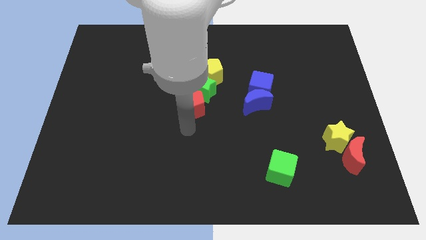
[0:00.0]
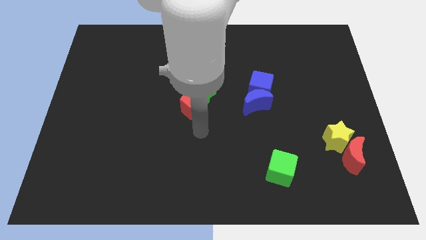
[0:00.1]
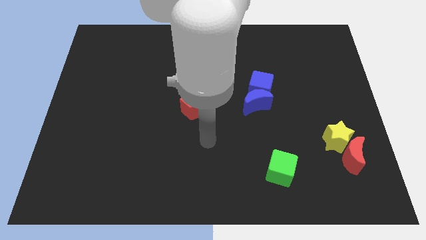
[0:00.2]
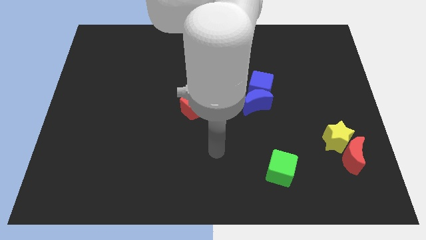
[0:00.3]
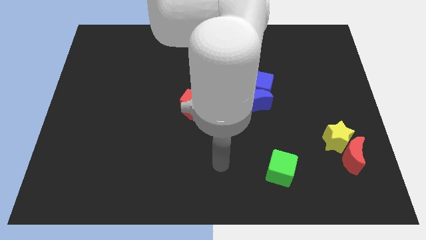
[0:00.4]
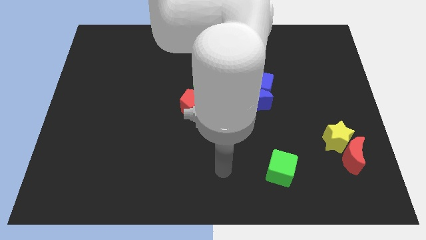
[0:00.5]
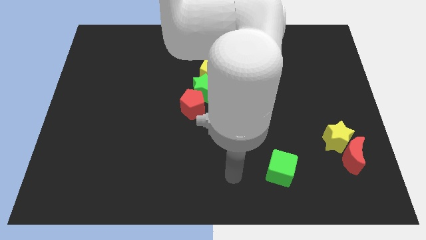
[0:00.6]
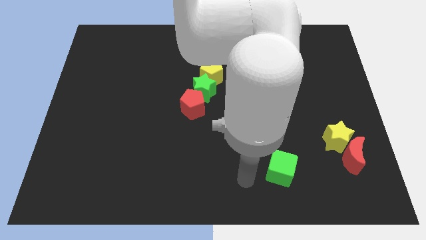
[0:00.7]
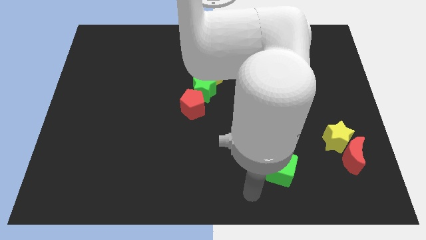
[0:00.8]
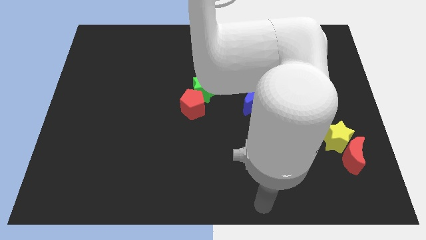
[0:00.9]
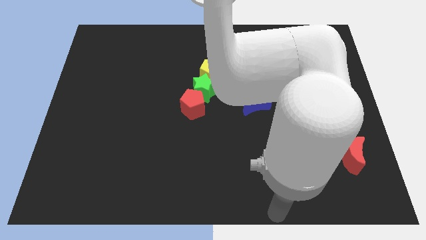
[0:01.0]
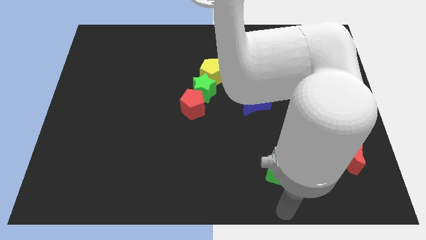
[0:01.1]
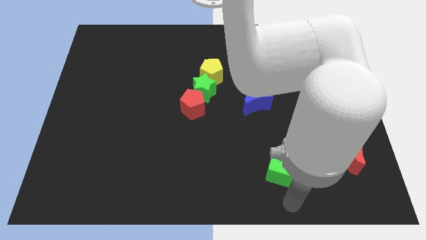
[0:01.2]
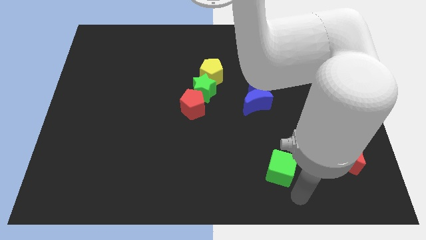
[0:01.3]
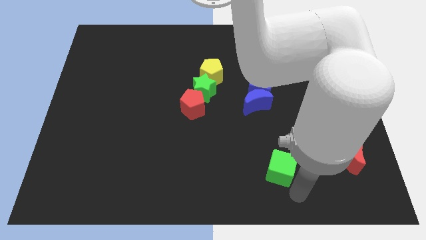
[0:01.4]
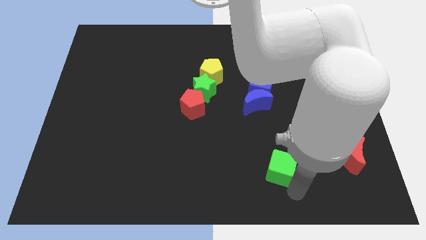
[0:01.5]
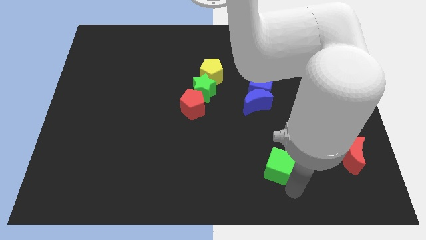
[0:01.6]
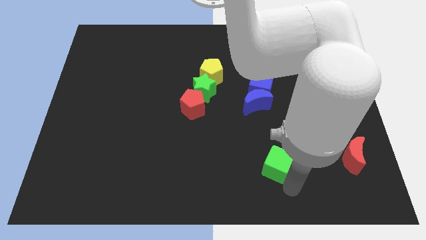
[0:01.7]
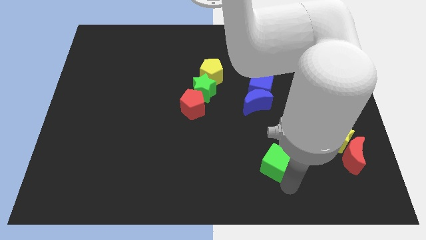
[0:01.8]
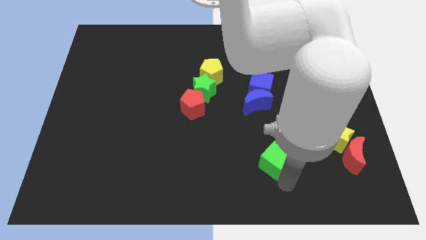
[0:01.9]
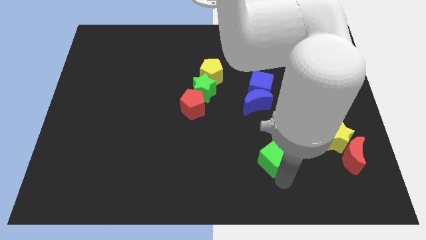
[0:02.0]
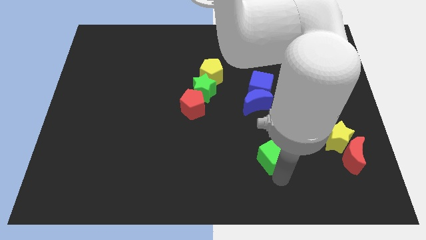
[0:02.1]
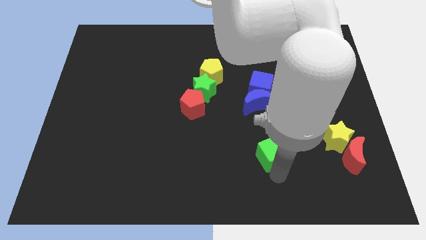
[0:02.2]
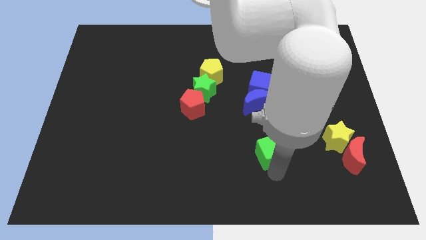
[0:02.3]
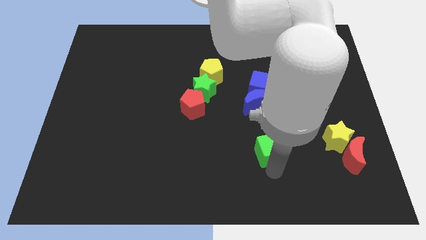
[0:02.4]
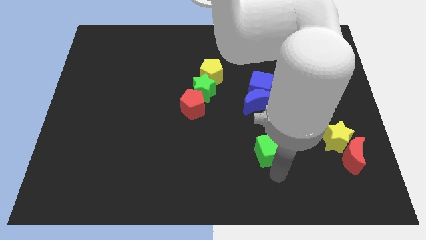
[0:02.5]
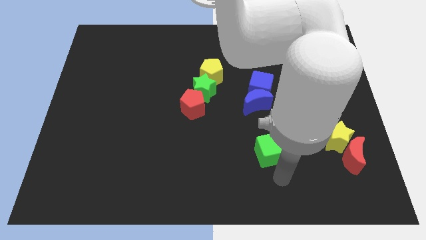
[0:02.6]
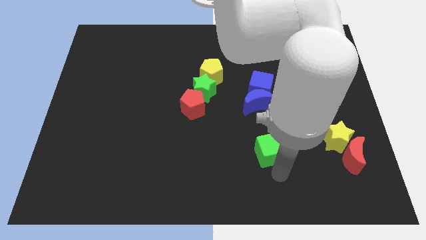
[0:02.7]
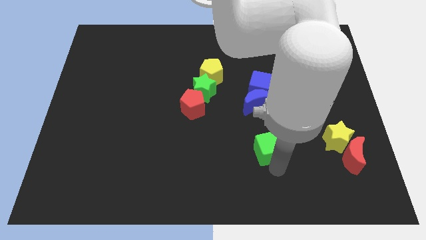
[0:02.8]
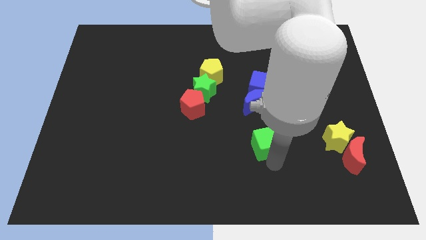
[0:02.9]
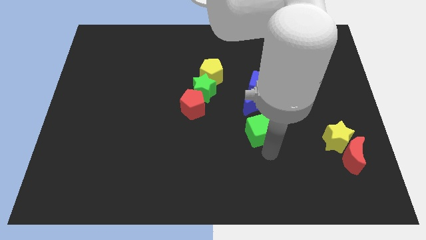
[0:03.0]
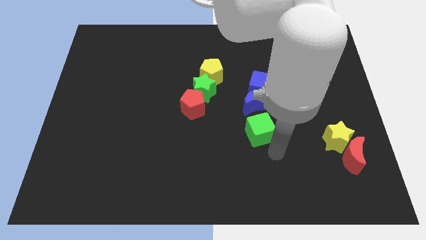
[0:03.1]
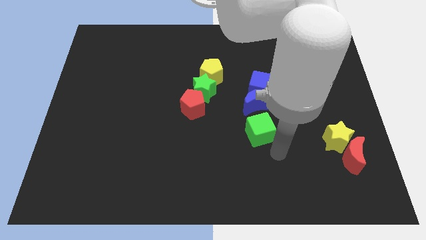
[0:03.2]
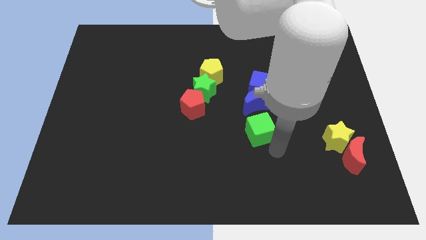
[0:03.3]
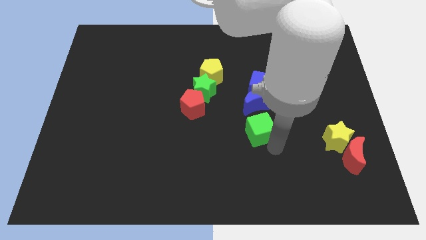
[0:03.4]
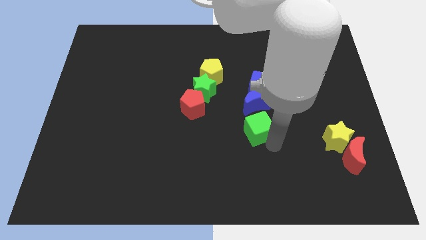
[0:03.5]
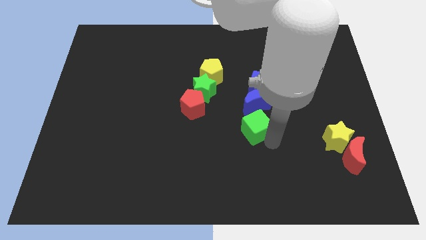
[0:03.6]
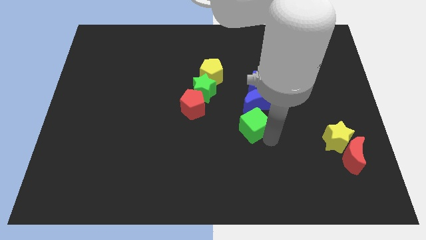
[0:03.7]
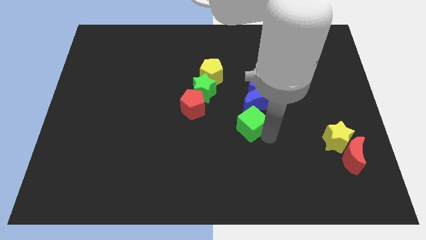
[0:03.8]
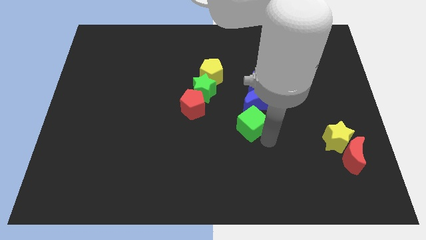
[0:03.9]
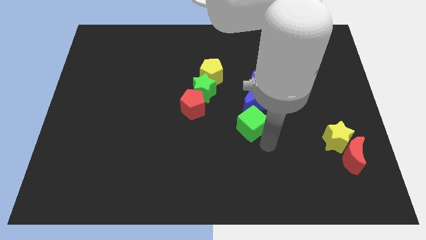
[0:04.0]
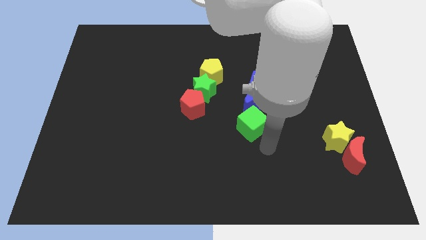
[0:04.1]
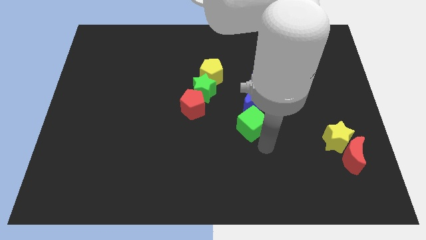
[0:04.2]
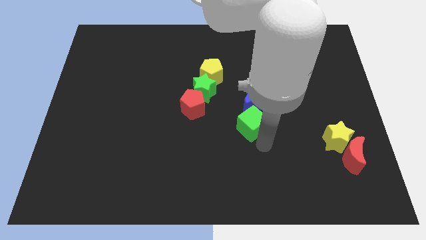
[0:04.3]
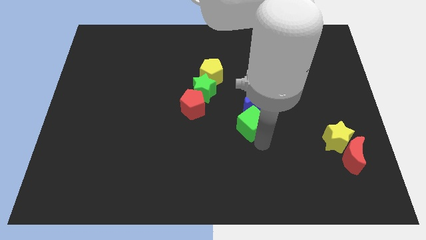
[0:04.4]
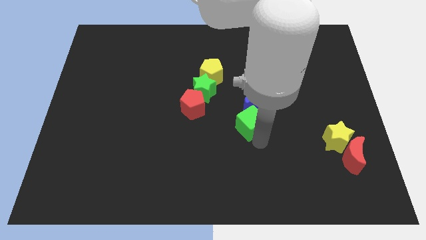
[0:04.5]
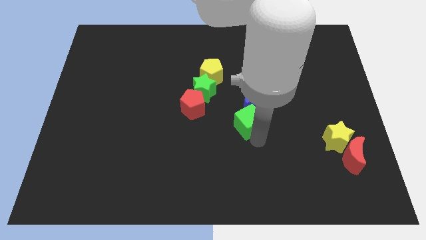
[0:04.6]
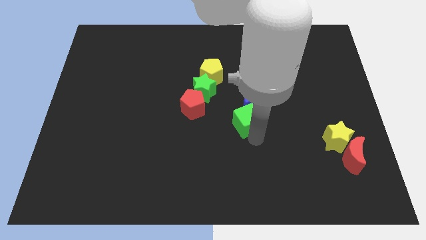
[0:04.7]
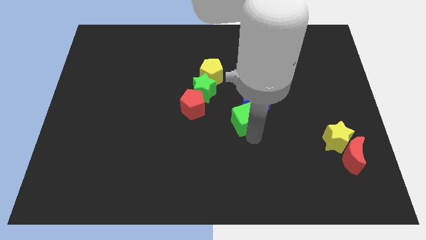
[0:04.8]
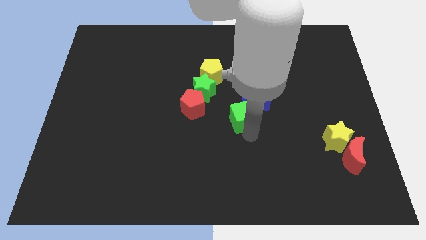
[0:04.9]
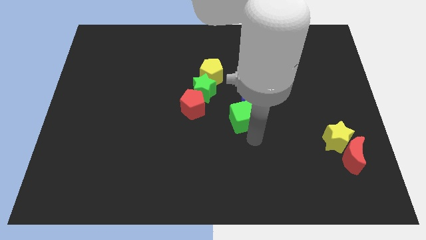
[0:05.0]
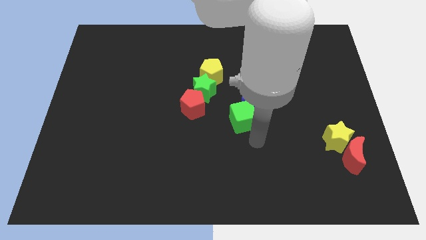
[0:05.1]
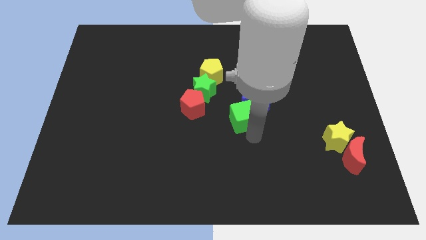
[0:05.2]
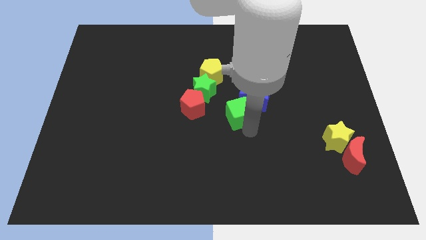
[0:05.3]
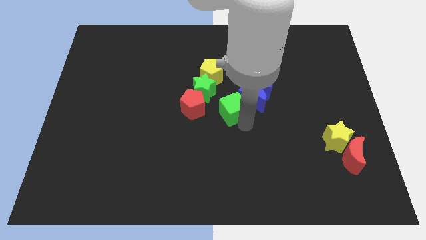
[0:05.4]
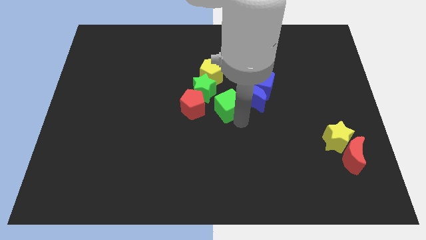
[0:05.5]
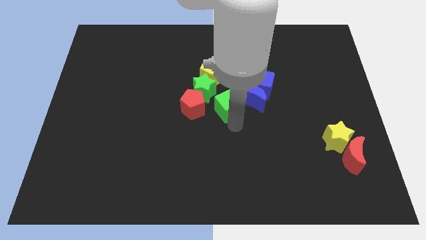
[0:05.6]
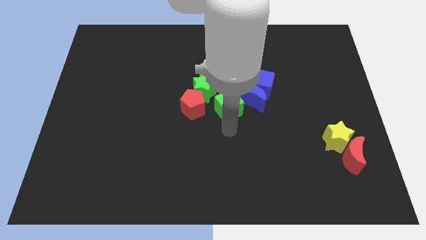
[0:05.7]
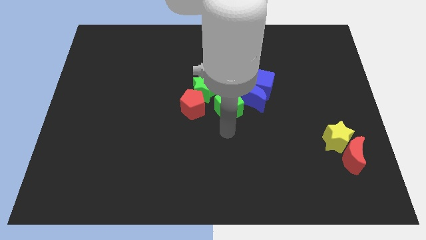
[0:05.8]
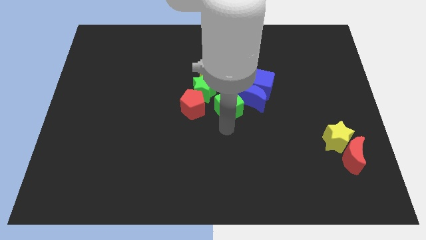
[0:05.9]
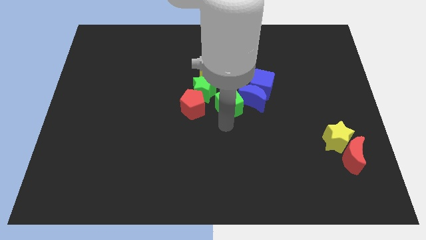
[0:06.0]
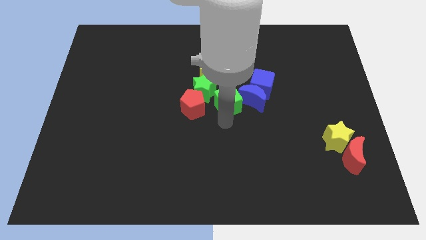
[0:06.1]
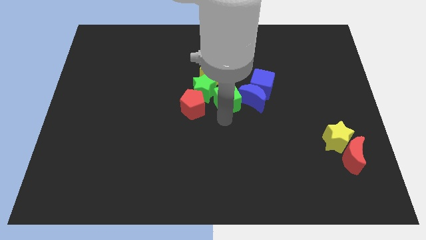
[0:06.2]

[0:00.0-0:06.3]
push the green cube diagonally up and to the left of the blue moon

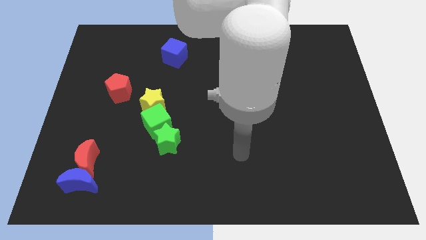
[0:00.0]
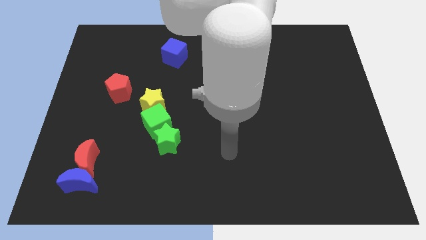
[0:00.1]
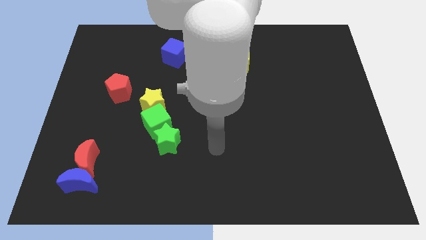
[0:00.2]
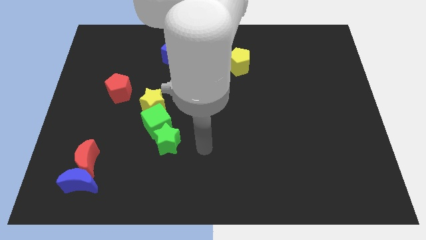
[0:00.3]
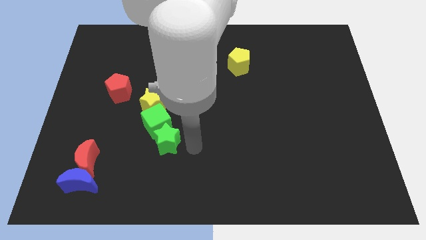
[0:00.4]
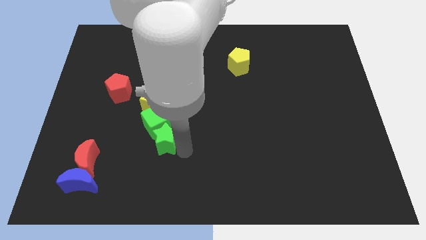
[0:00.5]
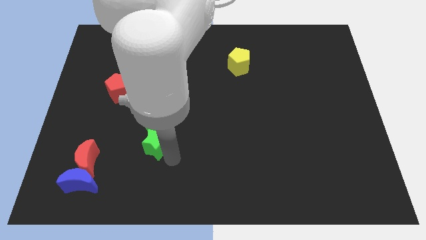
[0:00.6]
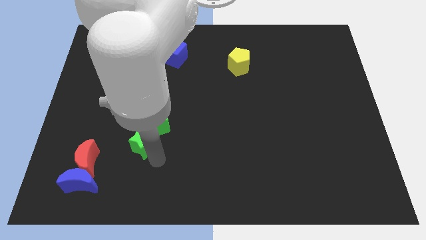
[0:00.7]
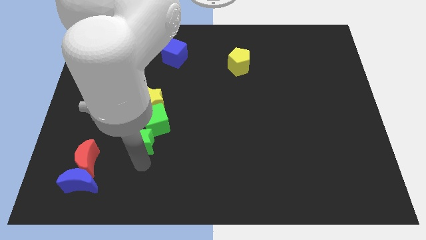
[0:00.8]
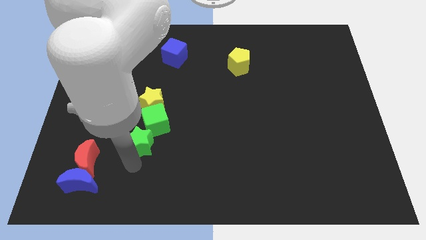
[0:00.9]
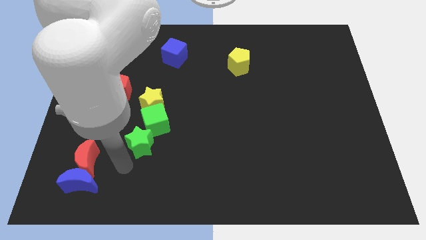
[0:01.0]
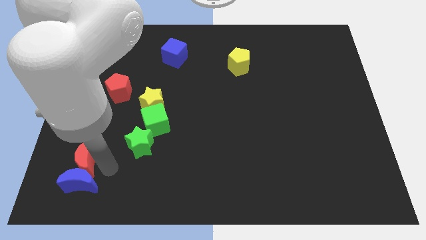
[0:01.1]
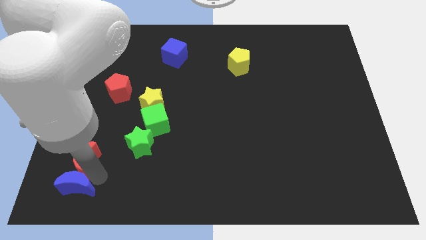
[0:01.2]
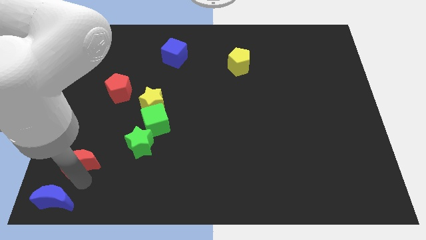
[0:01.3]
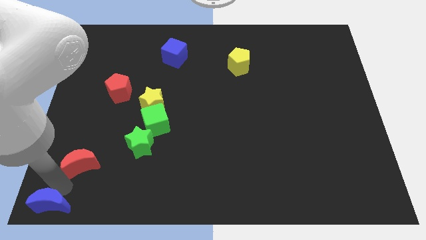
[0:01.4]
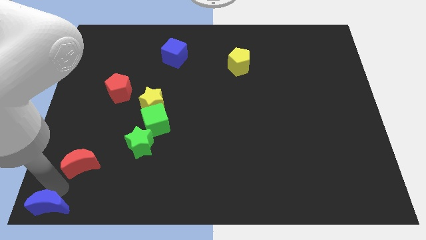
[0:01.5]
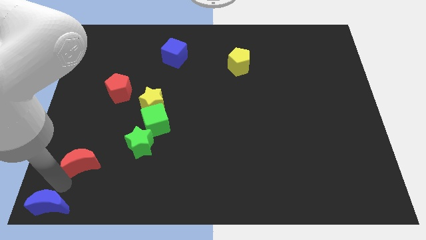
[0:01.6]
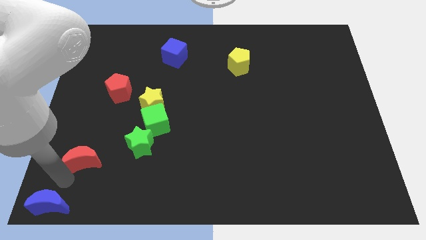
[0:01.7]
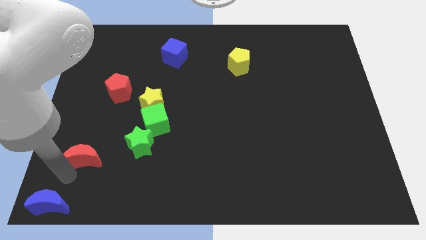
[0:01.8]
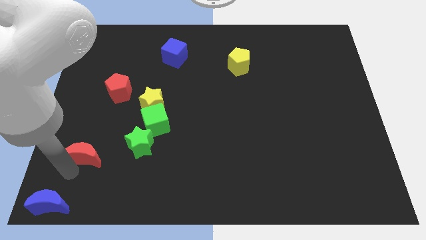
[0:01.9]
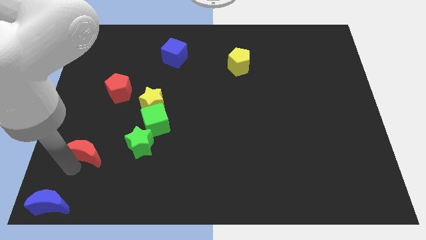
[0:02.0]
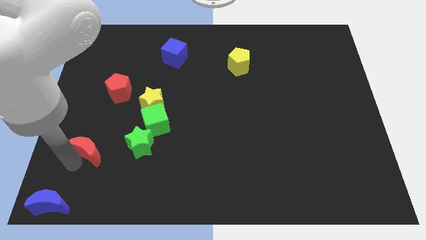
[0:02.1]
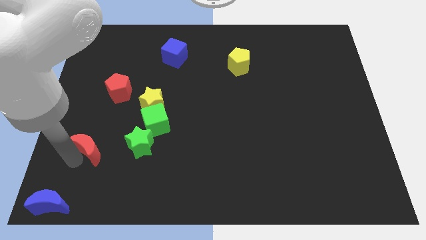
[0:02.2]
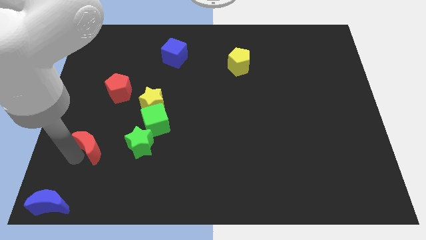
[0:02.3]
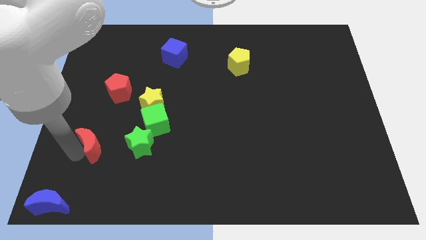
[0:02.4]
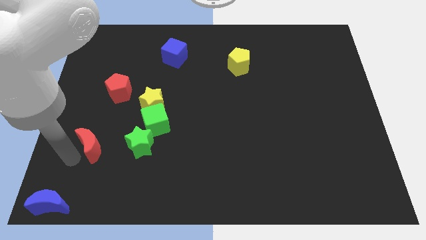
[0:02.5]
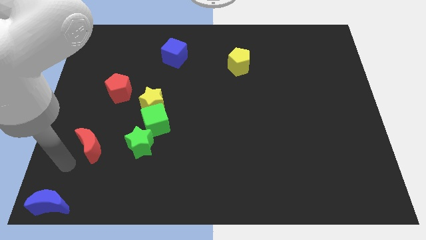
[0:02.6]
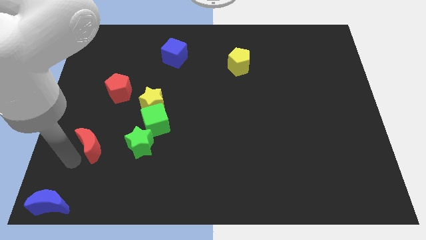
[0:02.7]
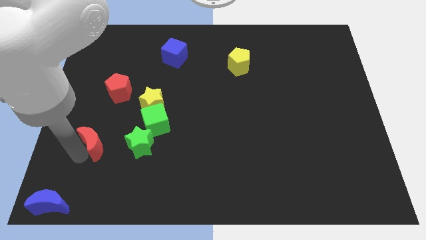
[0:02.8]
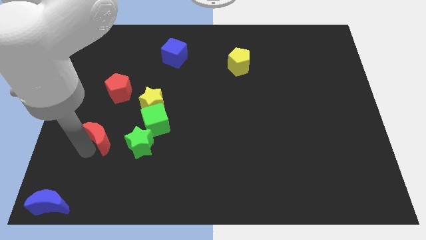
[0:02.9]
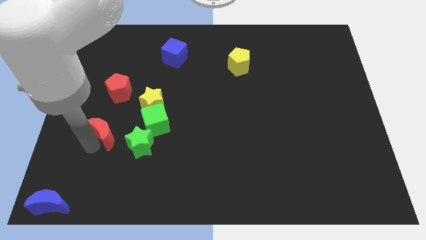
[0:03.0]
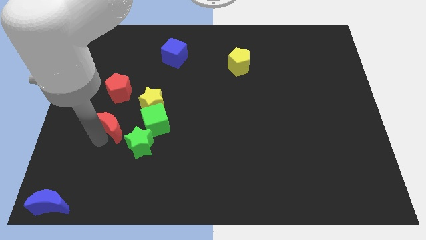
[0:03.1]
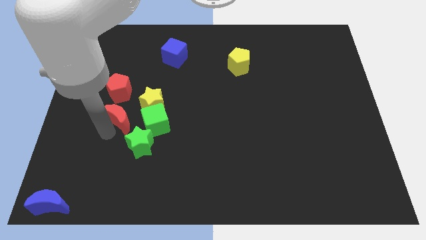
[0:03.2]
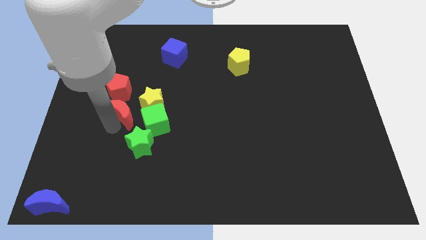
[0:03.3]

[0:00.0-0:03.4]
put the red moon to the bottom right of the red pentagon
